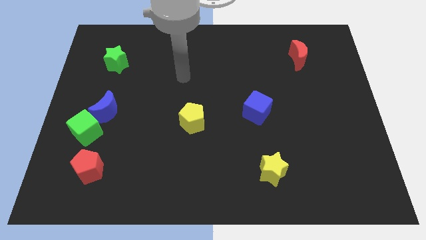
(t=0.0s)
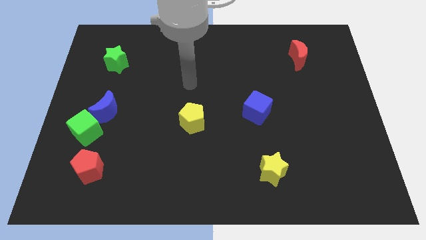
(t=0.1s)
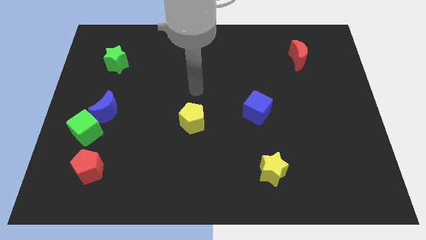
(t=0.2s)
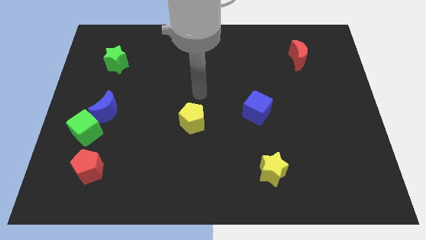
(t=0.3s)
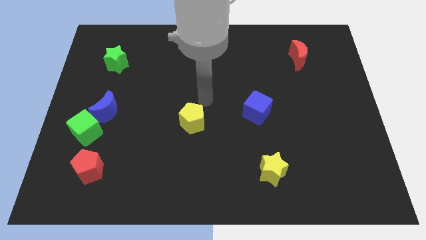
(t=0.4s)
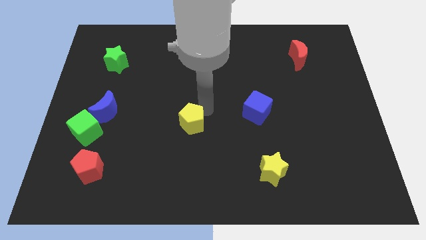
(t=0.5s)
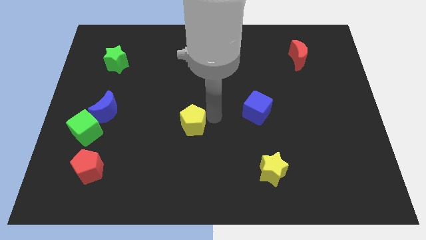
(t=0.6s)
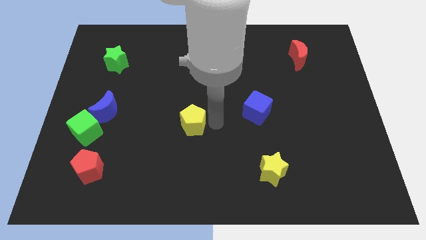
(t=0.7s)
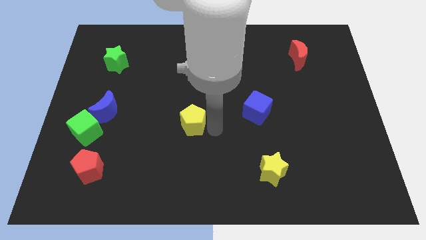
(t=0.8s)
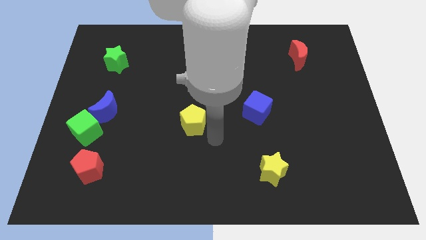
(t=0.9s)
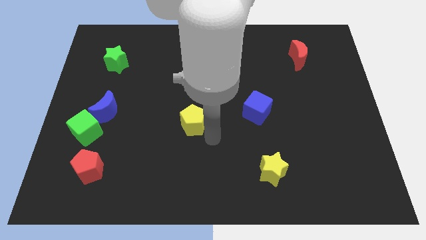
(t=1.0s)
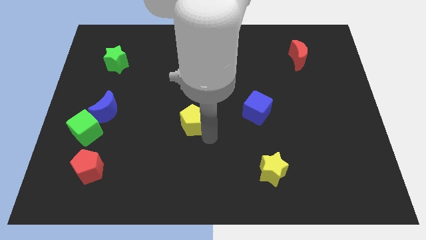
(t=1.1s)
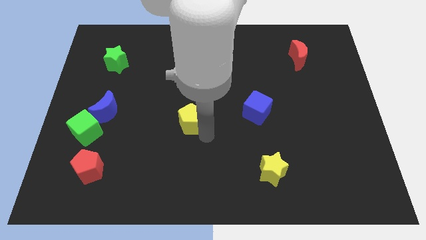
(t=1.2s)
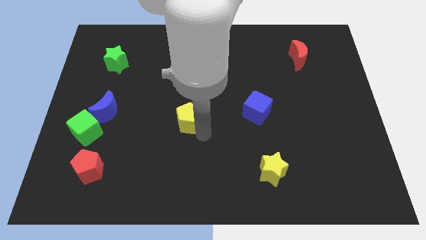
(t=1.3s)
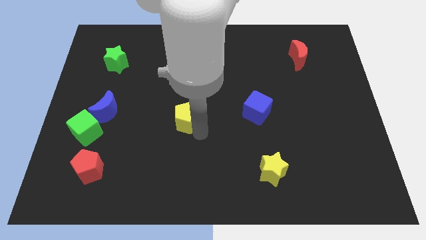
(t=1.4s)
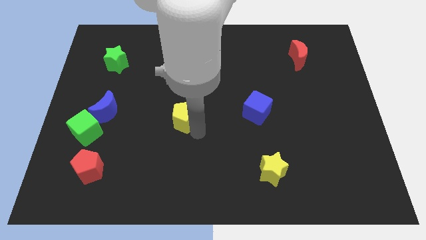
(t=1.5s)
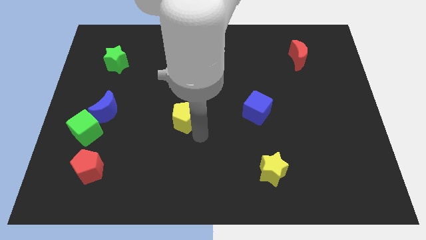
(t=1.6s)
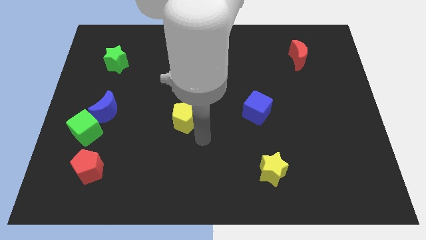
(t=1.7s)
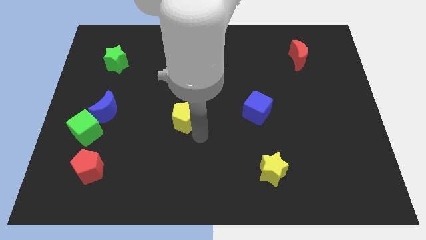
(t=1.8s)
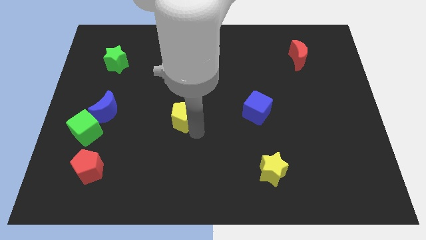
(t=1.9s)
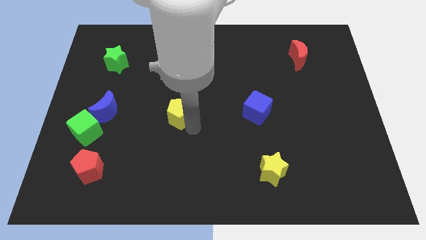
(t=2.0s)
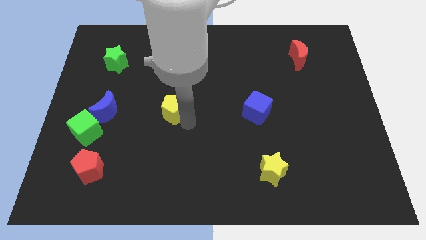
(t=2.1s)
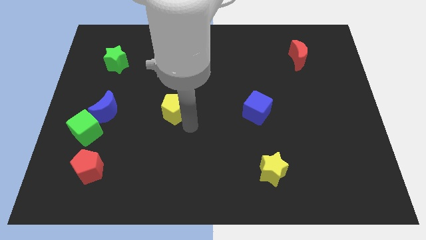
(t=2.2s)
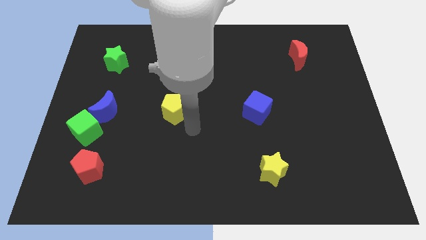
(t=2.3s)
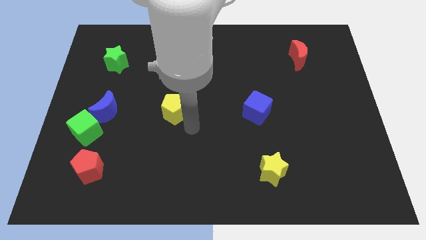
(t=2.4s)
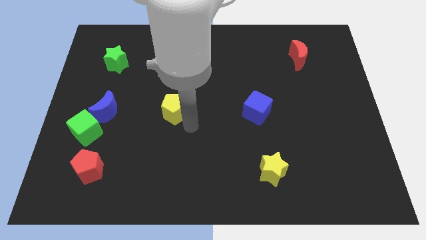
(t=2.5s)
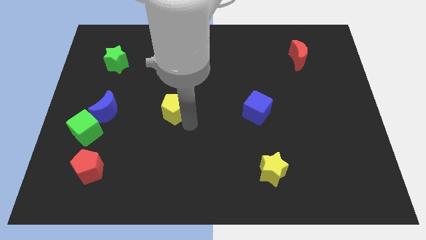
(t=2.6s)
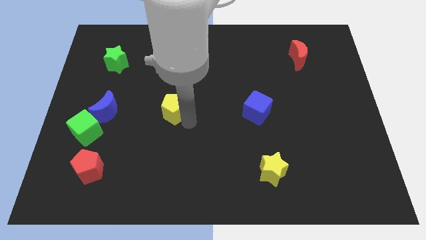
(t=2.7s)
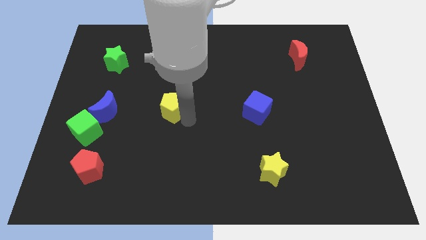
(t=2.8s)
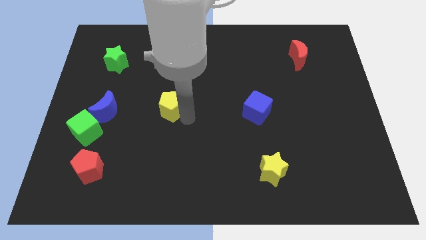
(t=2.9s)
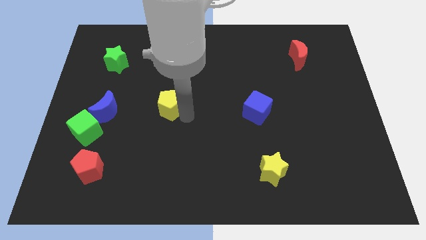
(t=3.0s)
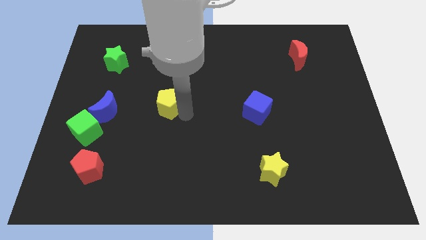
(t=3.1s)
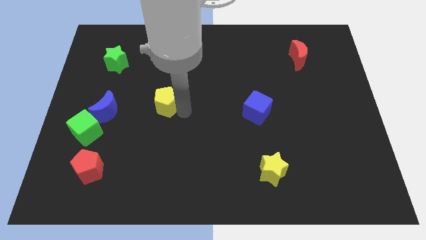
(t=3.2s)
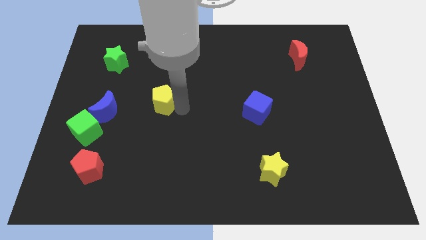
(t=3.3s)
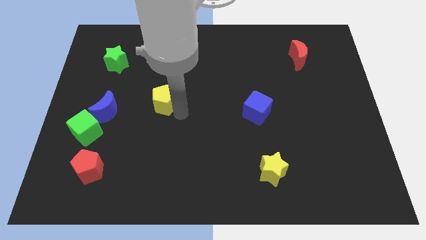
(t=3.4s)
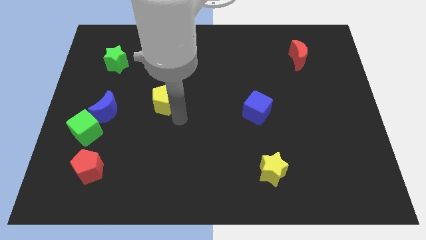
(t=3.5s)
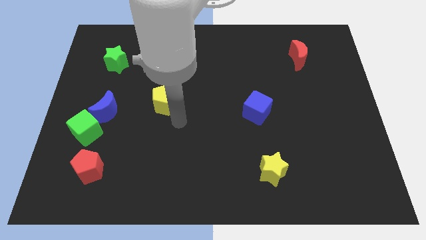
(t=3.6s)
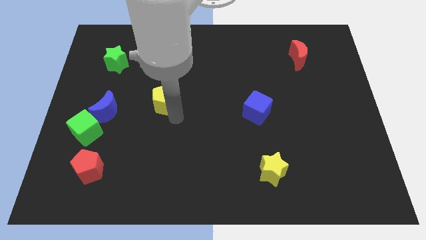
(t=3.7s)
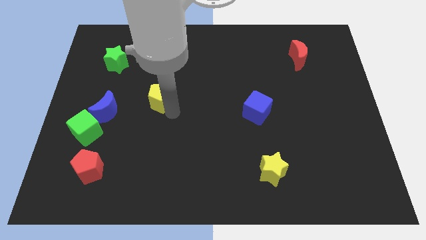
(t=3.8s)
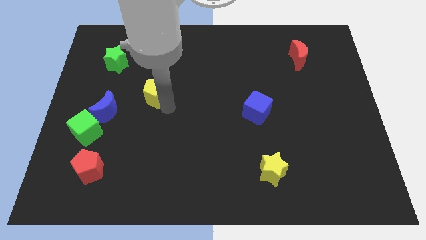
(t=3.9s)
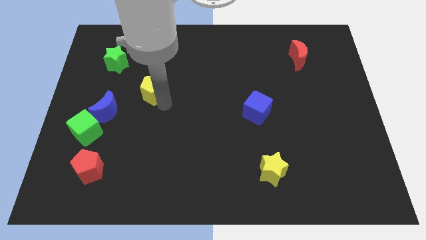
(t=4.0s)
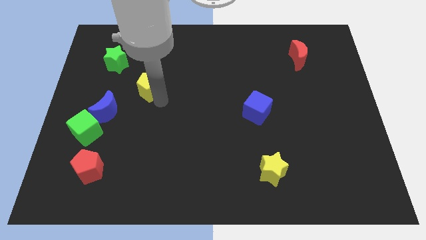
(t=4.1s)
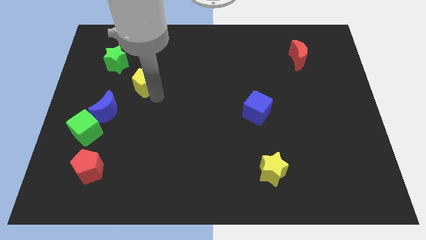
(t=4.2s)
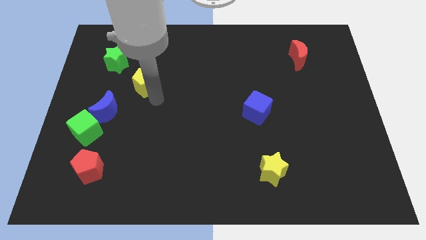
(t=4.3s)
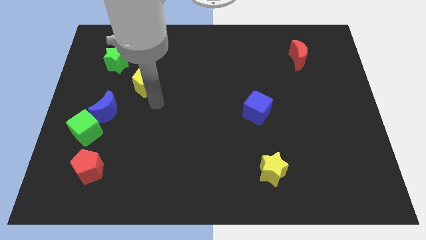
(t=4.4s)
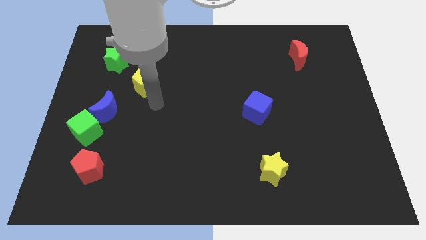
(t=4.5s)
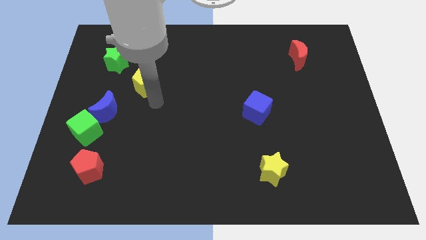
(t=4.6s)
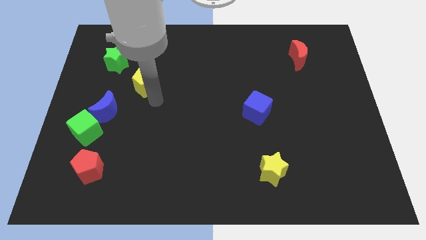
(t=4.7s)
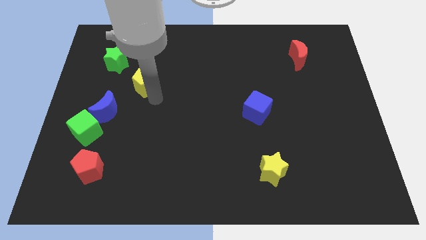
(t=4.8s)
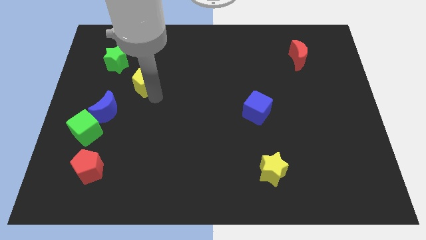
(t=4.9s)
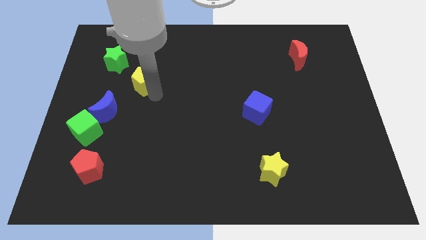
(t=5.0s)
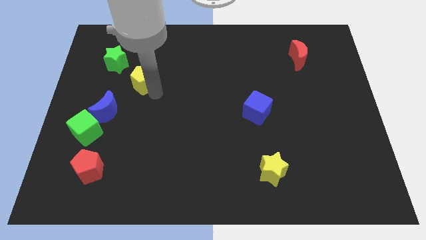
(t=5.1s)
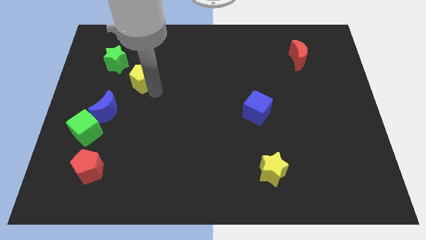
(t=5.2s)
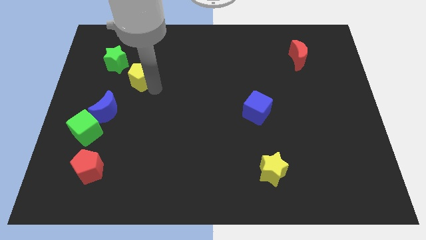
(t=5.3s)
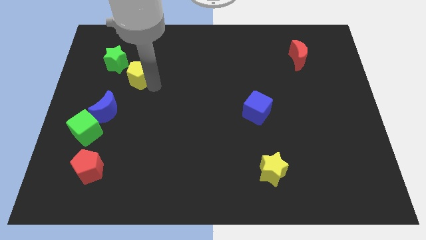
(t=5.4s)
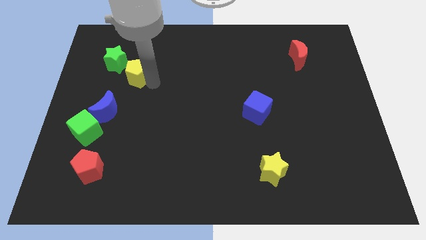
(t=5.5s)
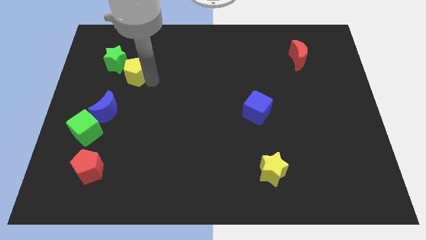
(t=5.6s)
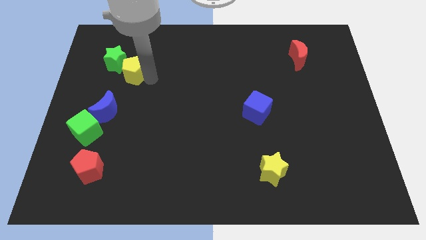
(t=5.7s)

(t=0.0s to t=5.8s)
push the yellow pentagon towards the green star

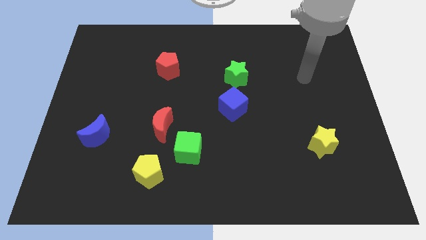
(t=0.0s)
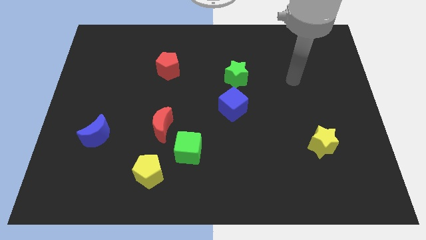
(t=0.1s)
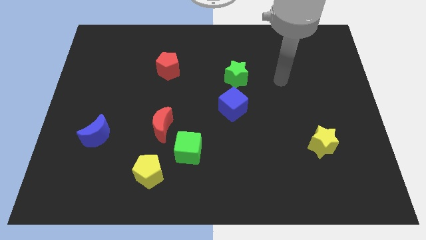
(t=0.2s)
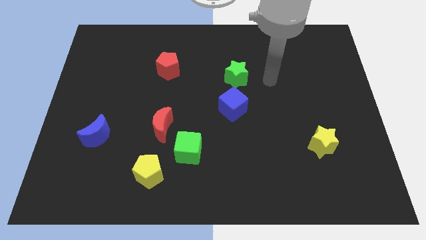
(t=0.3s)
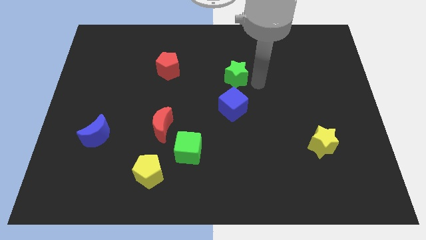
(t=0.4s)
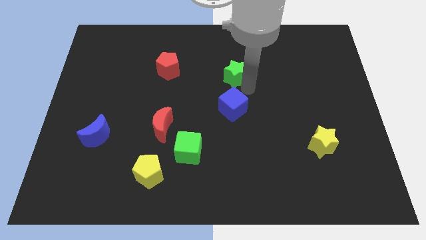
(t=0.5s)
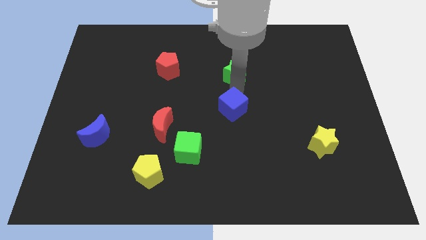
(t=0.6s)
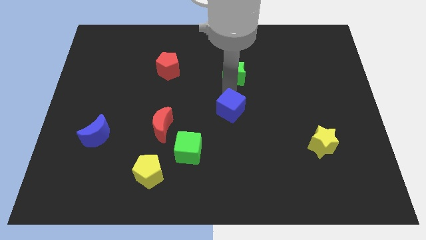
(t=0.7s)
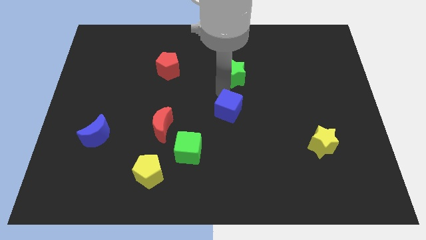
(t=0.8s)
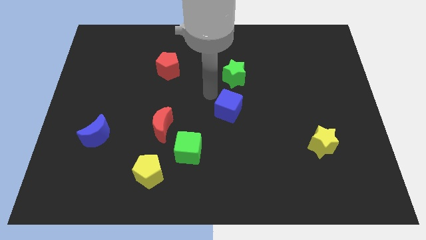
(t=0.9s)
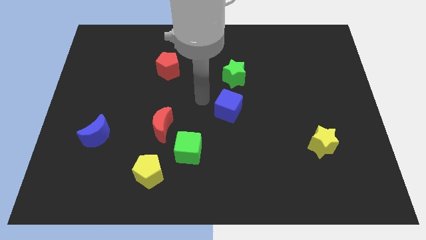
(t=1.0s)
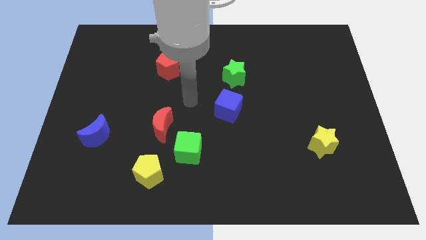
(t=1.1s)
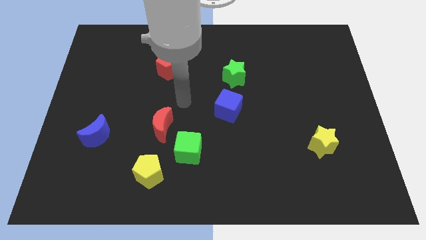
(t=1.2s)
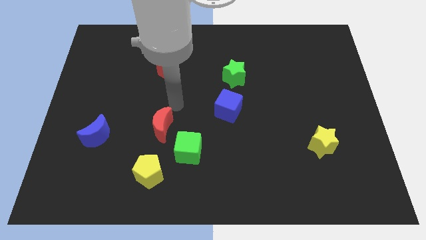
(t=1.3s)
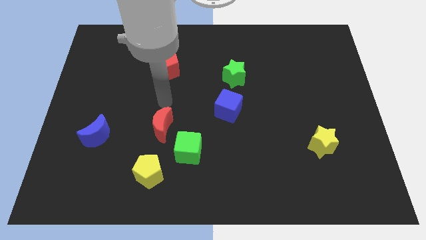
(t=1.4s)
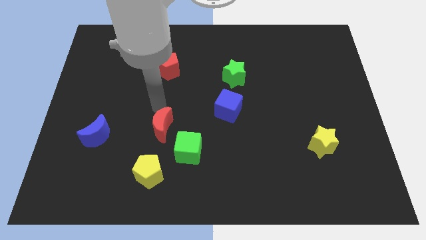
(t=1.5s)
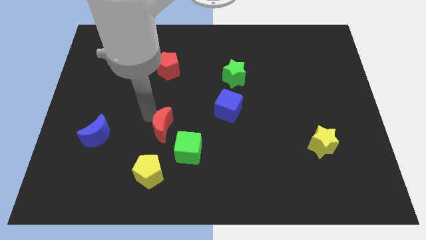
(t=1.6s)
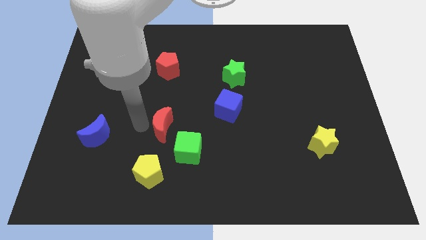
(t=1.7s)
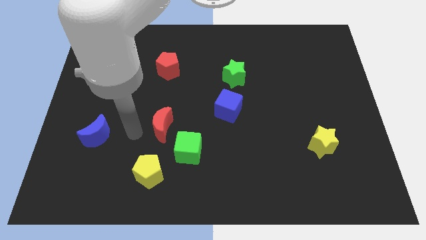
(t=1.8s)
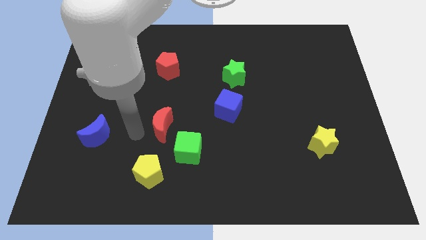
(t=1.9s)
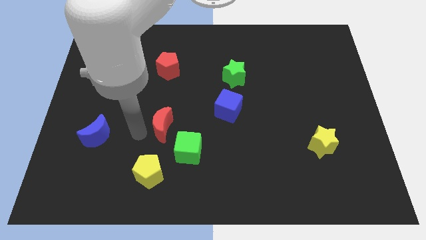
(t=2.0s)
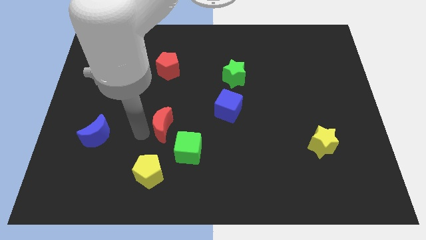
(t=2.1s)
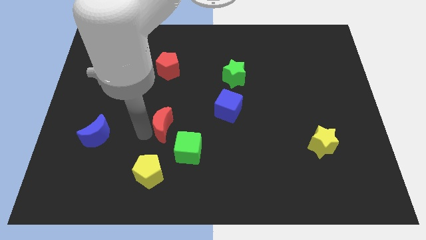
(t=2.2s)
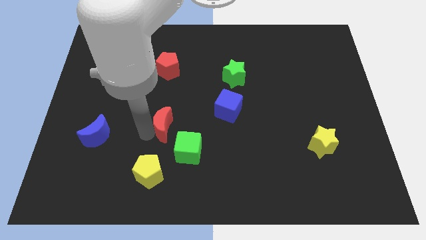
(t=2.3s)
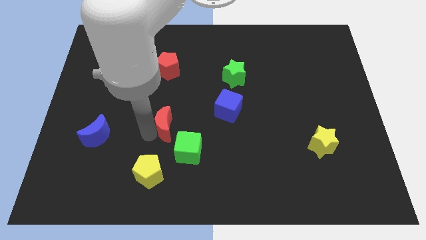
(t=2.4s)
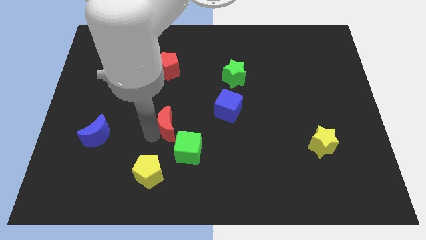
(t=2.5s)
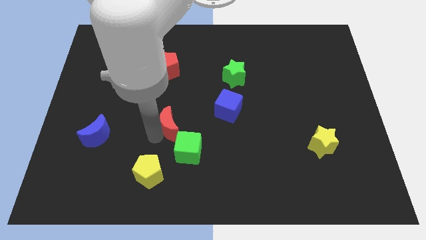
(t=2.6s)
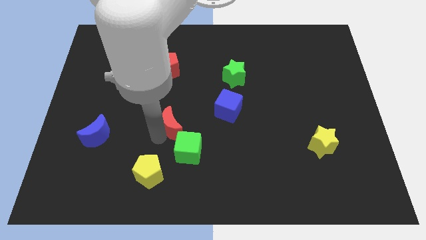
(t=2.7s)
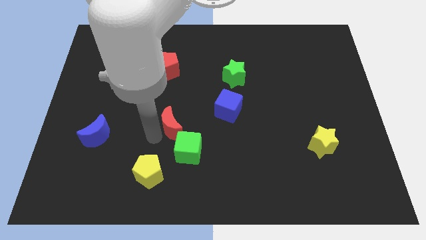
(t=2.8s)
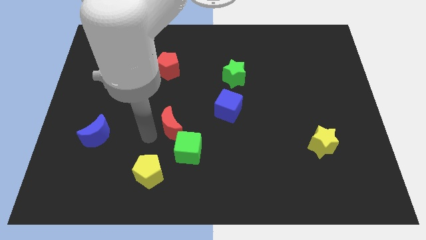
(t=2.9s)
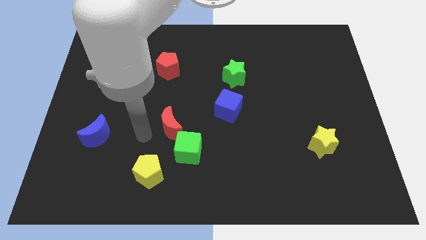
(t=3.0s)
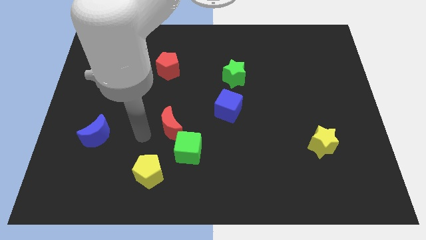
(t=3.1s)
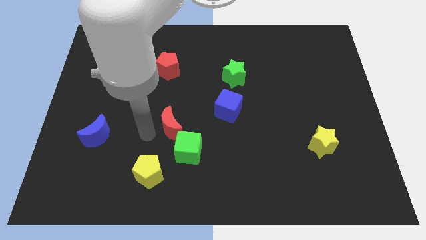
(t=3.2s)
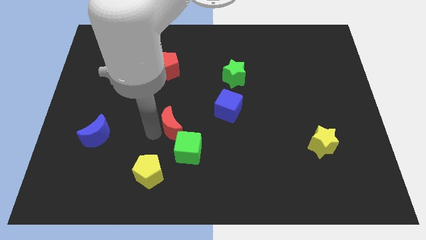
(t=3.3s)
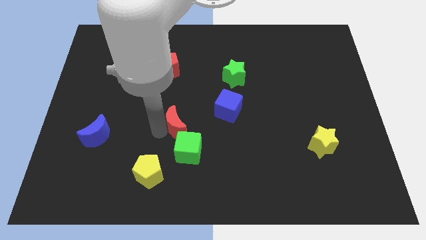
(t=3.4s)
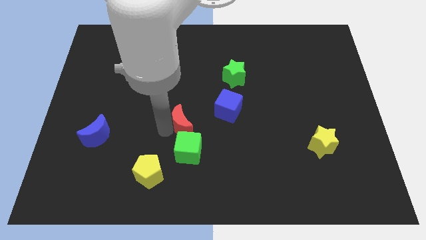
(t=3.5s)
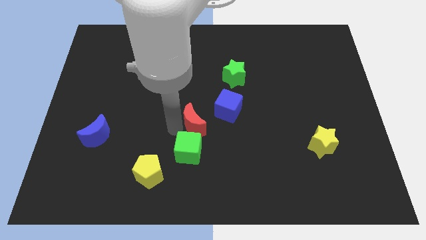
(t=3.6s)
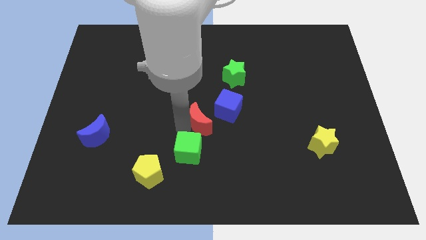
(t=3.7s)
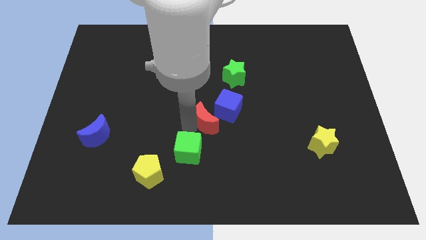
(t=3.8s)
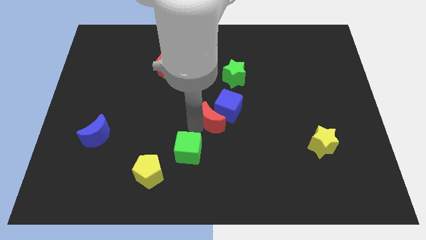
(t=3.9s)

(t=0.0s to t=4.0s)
put the red moon close to the blue cube
